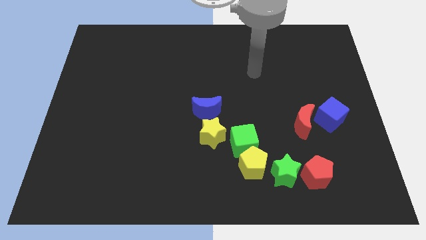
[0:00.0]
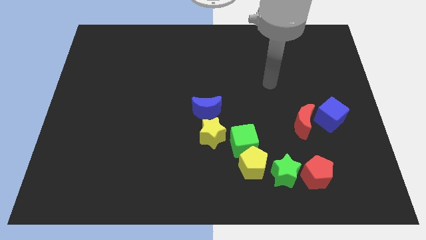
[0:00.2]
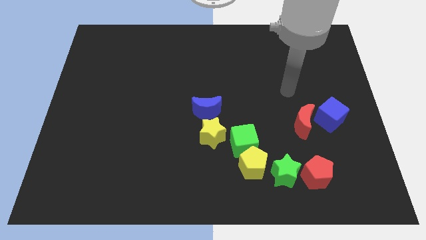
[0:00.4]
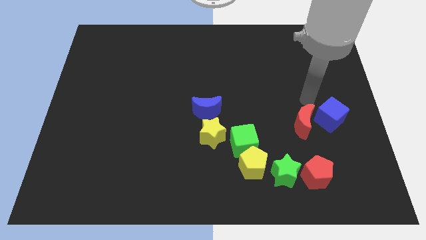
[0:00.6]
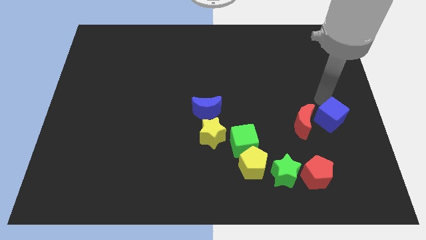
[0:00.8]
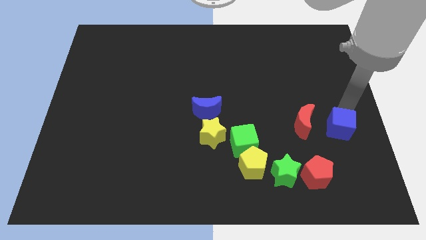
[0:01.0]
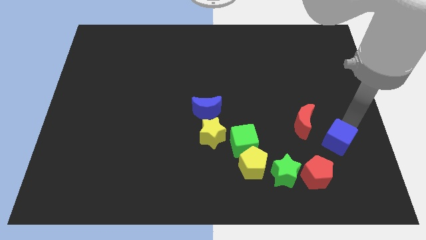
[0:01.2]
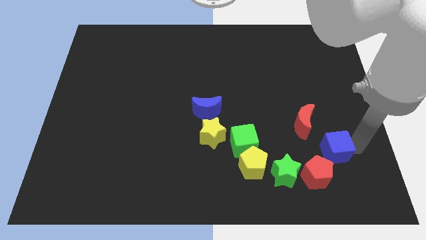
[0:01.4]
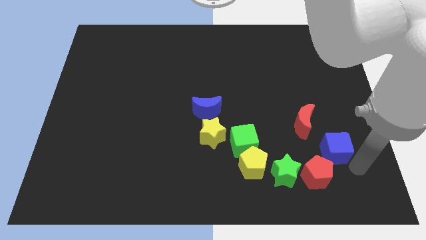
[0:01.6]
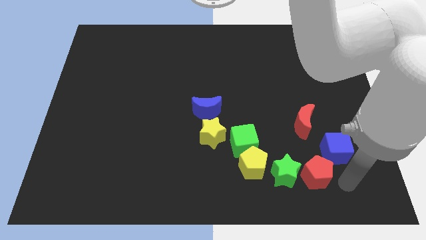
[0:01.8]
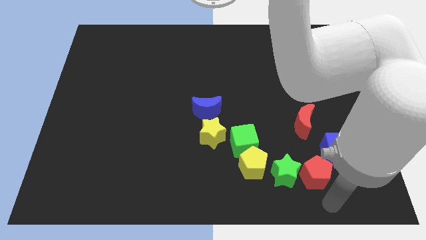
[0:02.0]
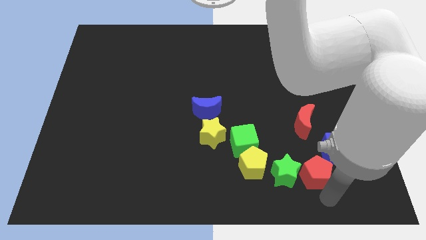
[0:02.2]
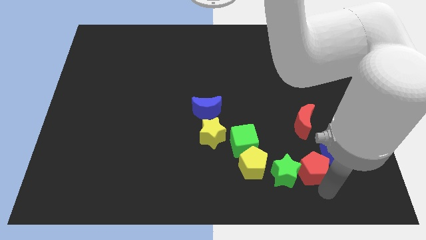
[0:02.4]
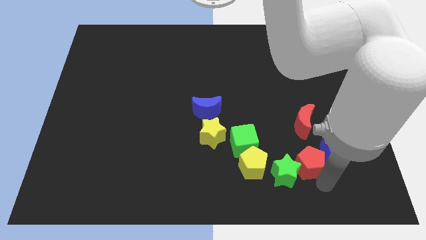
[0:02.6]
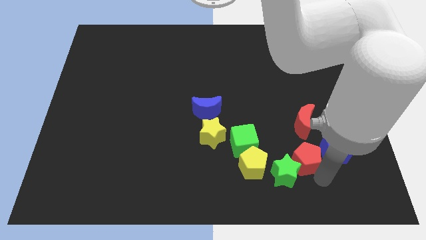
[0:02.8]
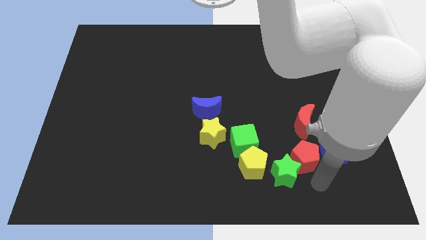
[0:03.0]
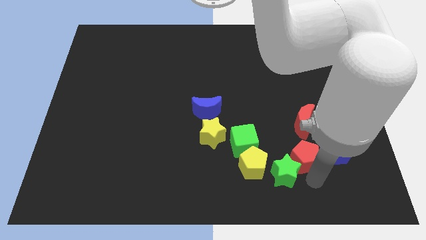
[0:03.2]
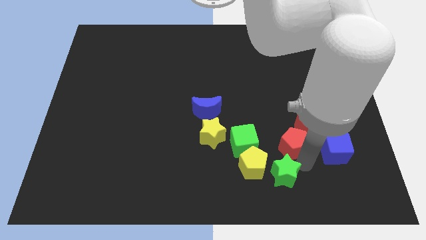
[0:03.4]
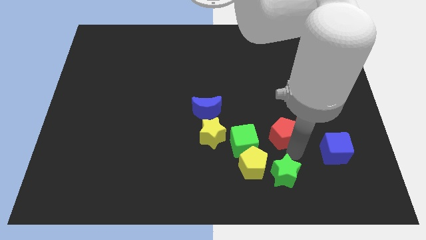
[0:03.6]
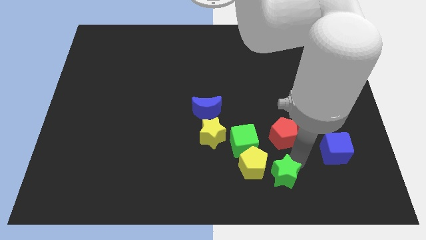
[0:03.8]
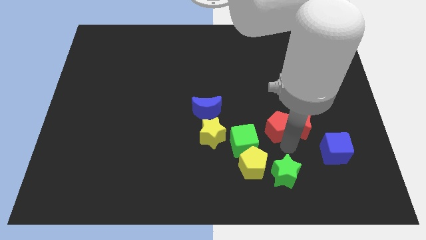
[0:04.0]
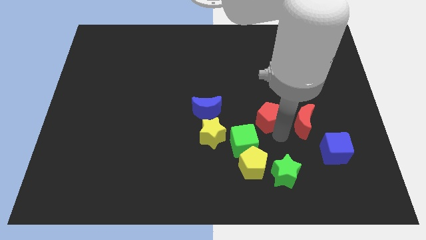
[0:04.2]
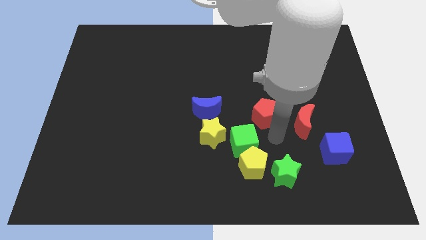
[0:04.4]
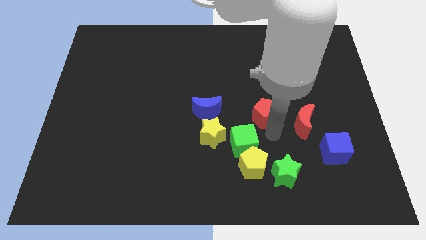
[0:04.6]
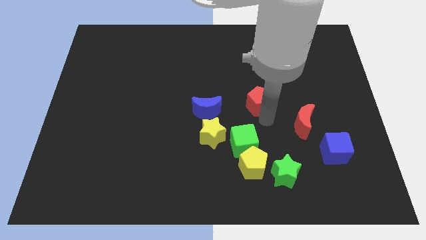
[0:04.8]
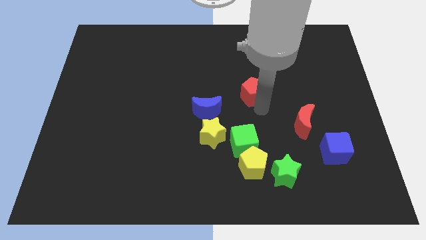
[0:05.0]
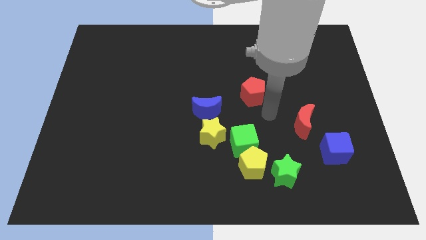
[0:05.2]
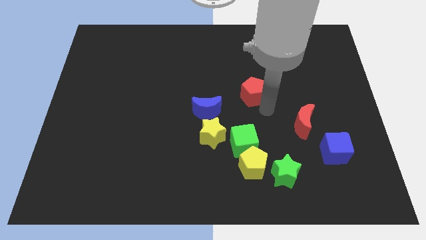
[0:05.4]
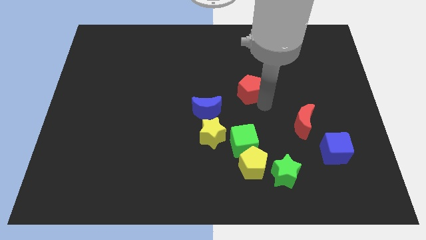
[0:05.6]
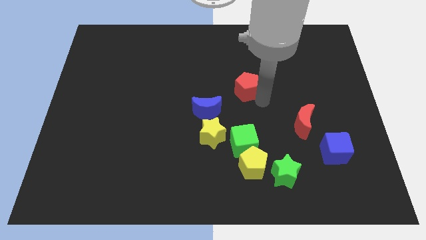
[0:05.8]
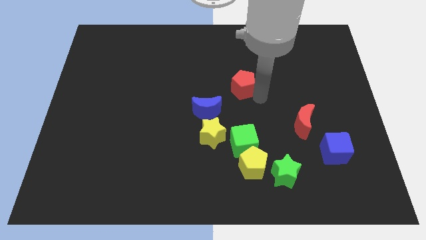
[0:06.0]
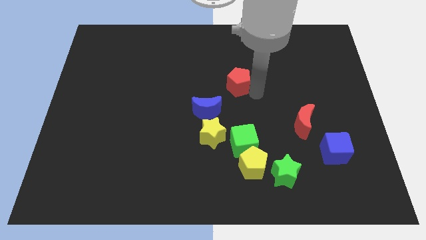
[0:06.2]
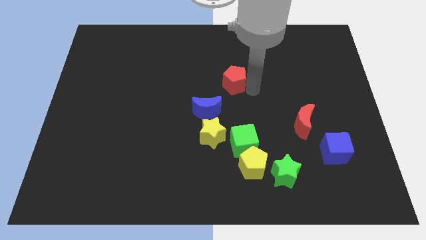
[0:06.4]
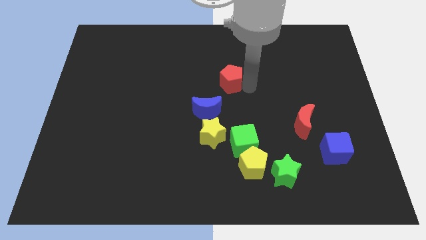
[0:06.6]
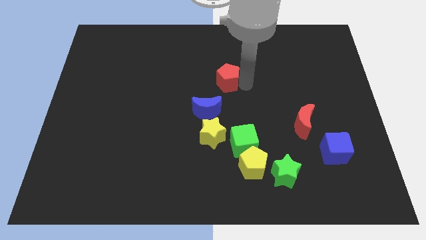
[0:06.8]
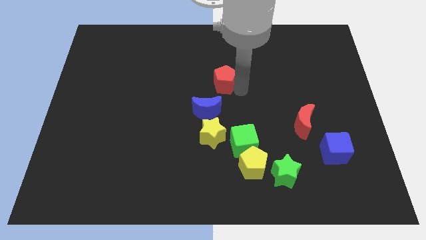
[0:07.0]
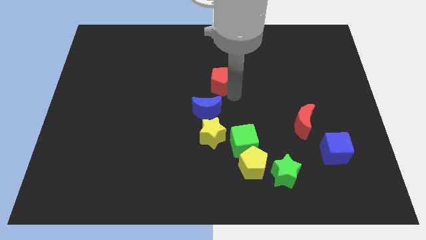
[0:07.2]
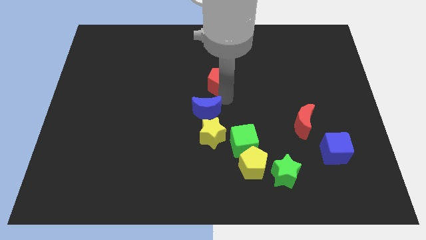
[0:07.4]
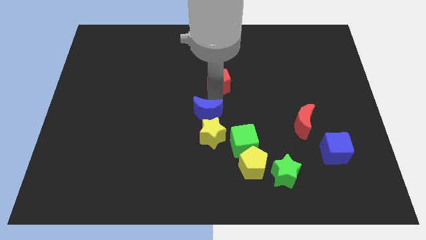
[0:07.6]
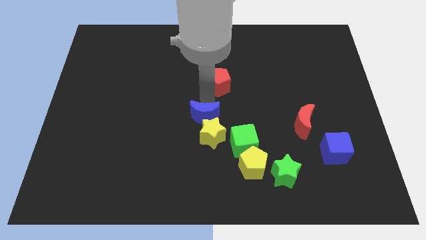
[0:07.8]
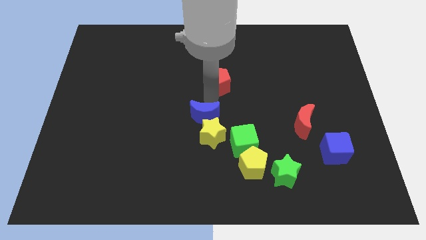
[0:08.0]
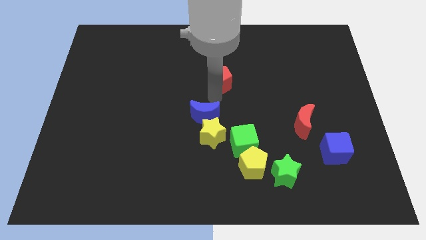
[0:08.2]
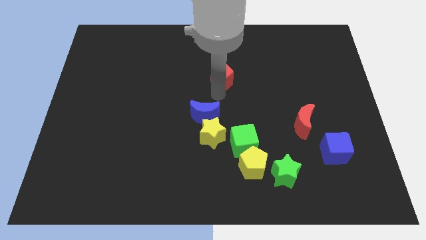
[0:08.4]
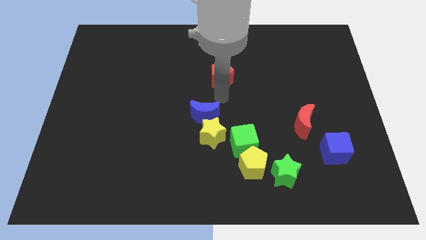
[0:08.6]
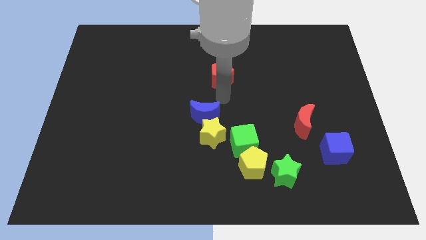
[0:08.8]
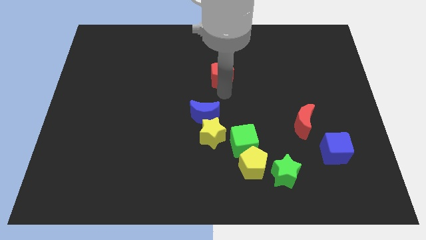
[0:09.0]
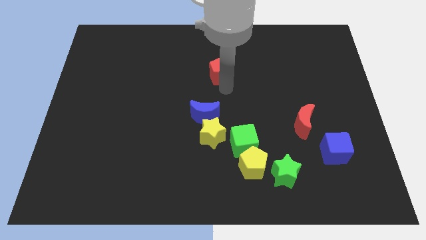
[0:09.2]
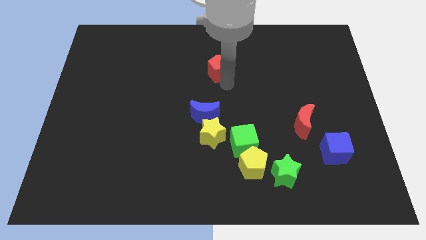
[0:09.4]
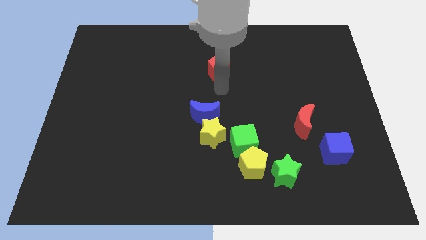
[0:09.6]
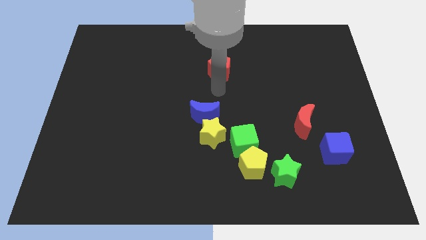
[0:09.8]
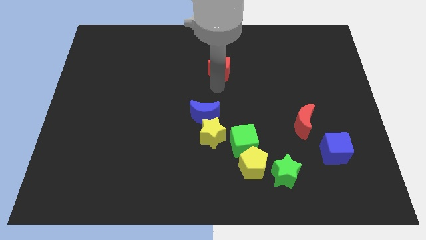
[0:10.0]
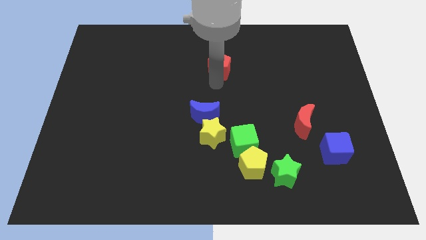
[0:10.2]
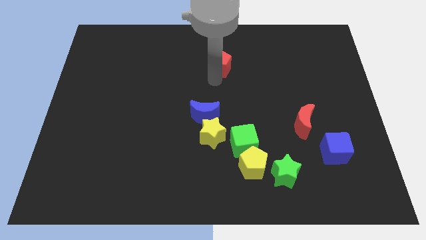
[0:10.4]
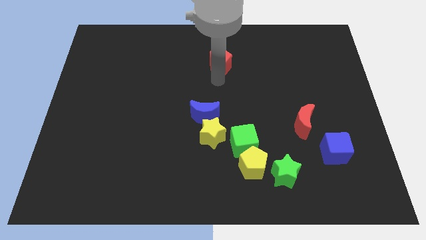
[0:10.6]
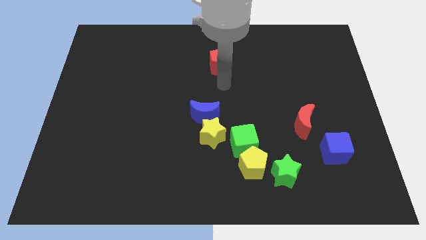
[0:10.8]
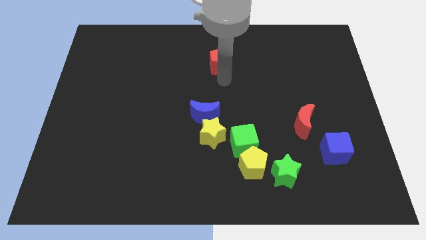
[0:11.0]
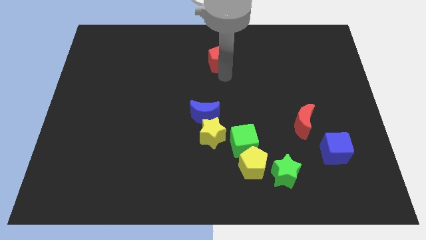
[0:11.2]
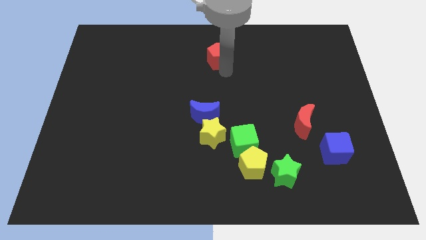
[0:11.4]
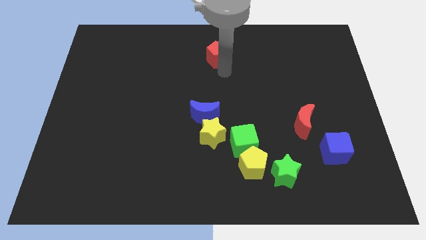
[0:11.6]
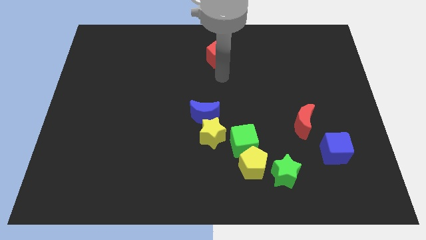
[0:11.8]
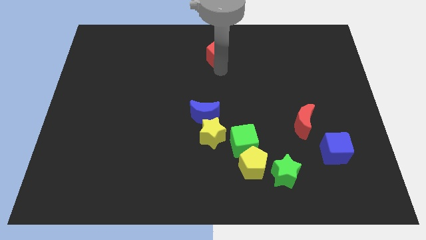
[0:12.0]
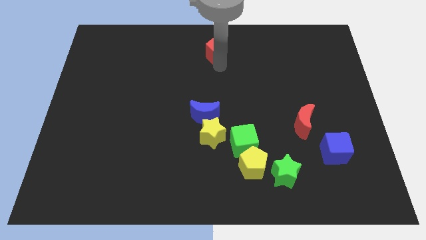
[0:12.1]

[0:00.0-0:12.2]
move the red pentagon to the top side
